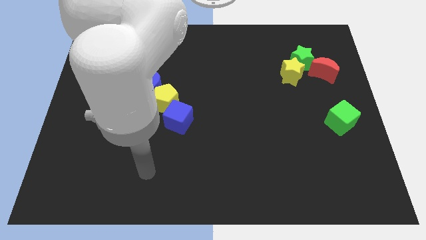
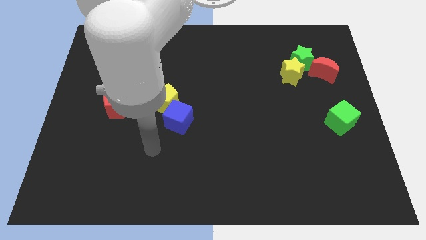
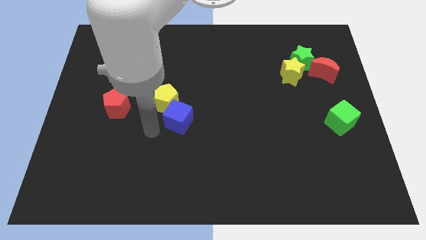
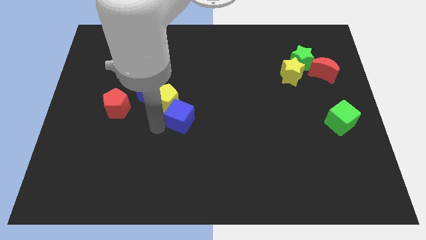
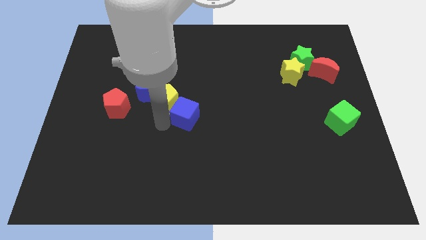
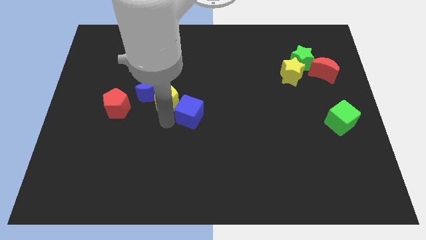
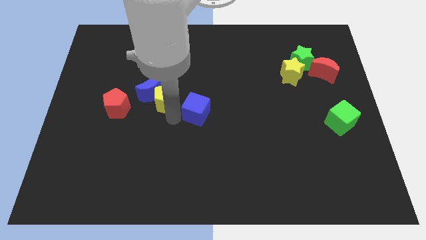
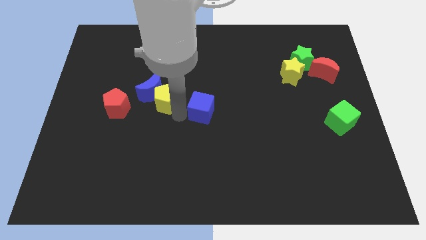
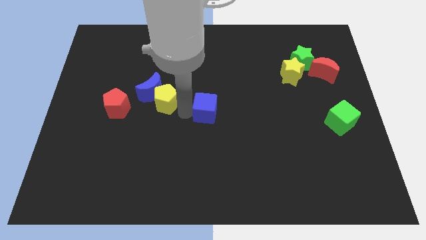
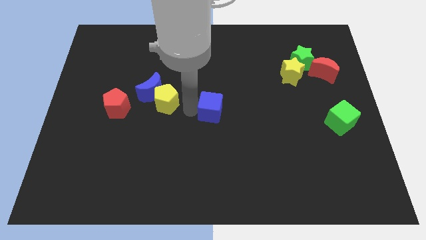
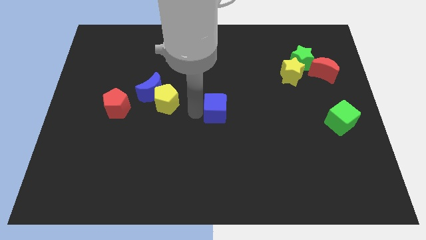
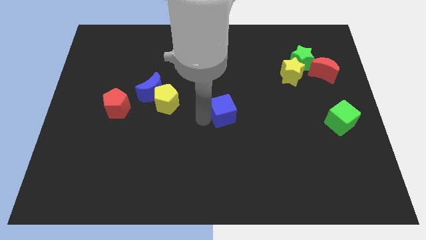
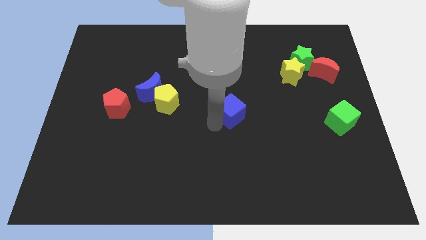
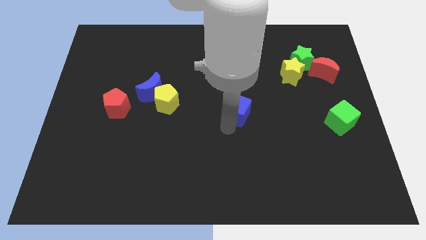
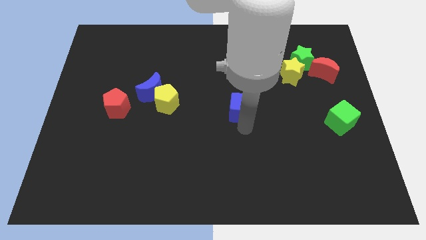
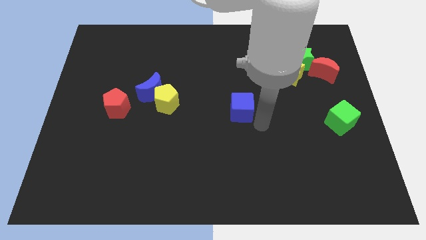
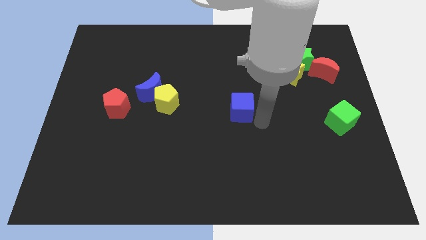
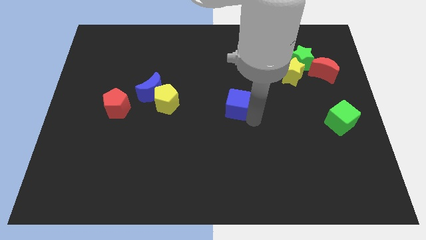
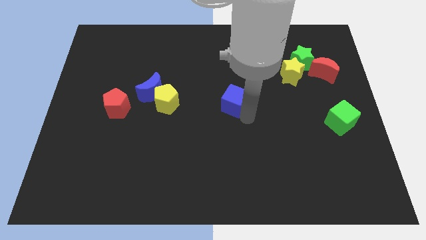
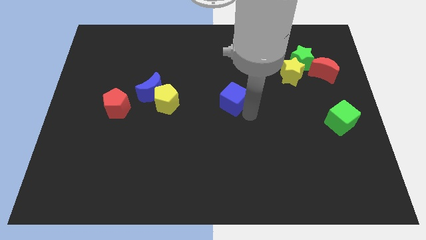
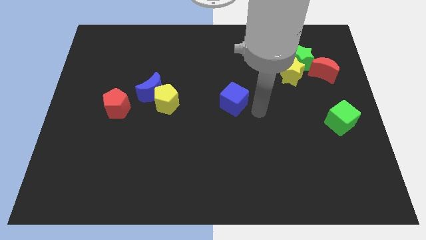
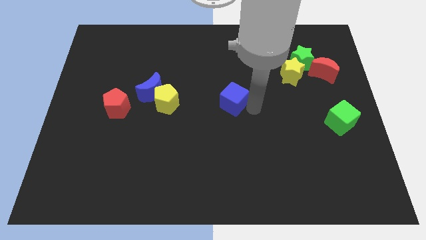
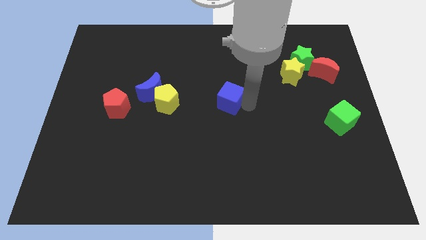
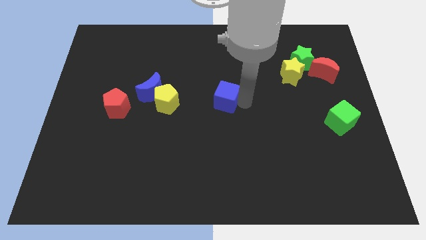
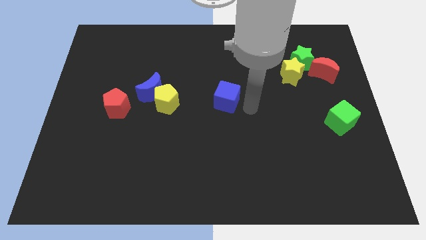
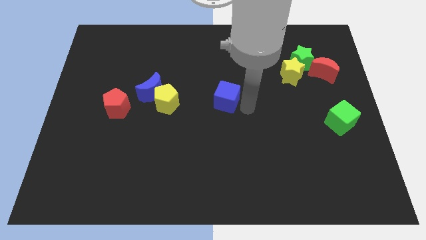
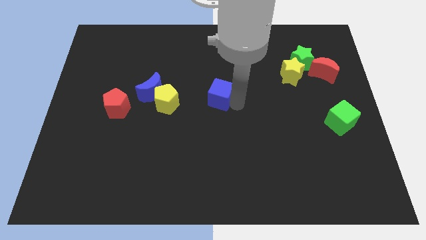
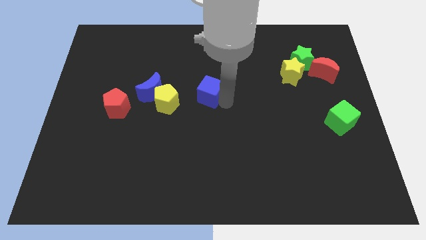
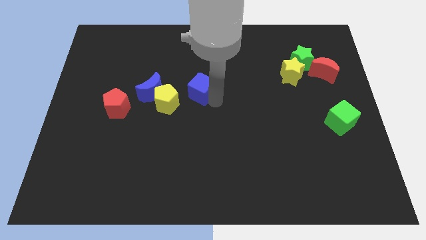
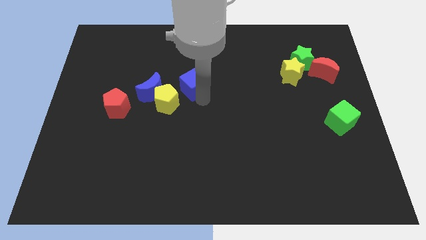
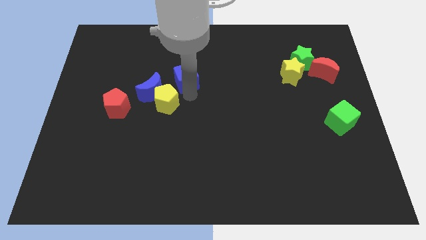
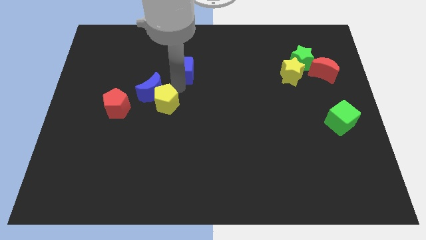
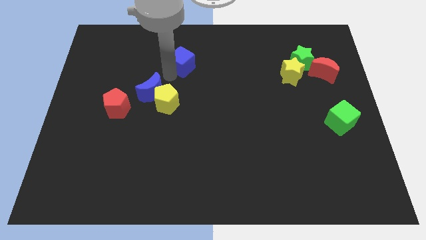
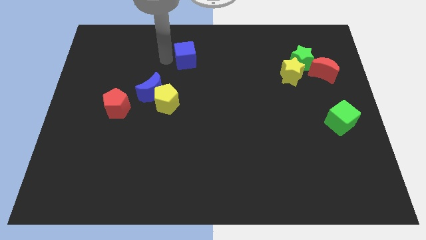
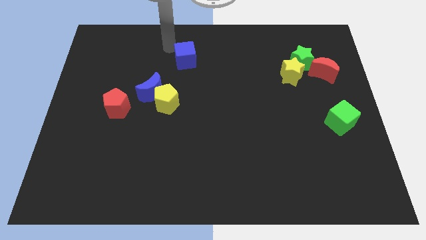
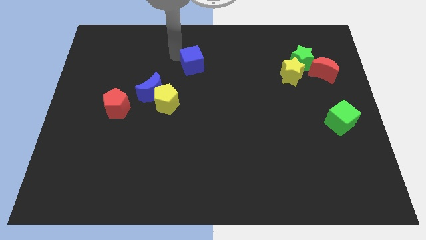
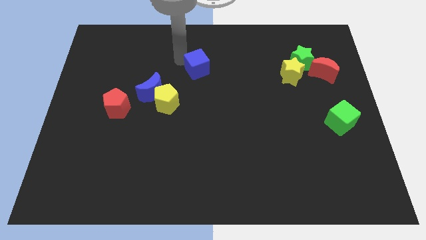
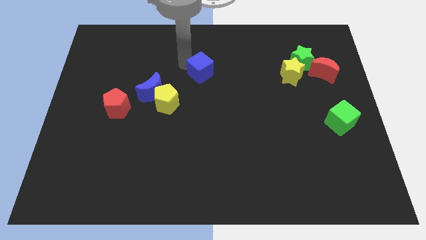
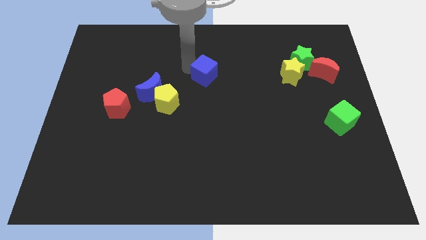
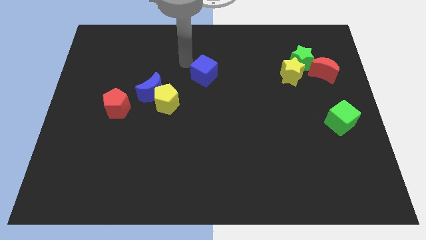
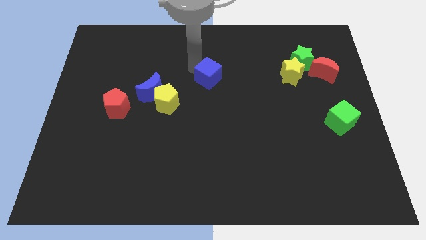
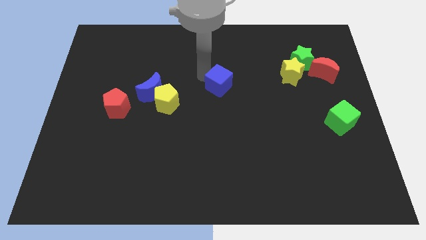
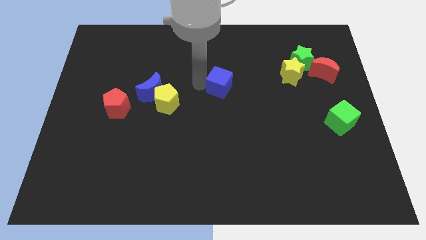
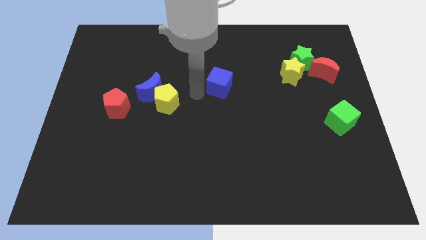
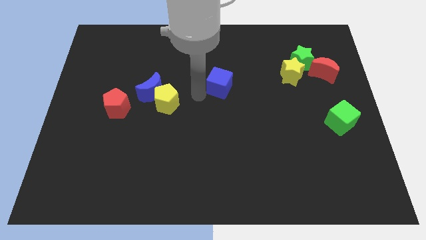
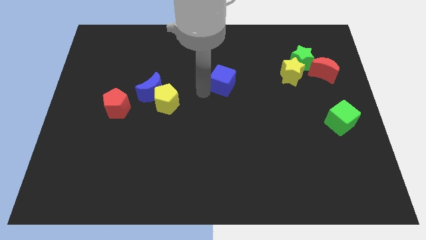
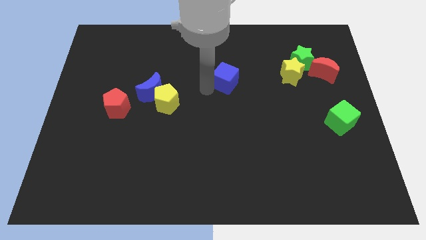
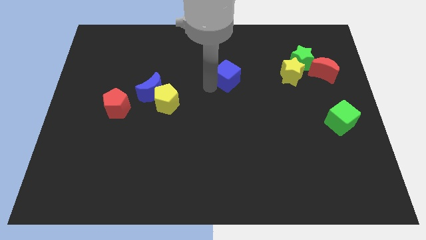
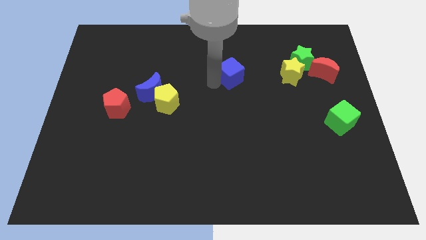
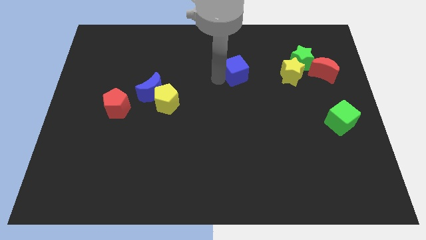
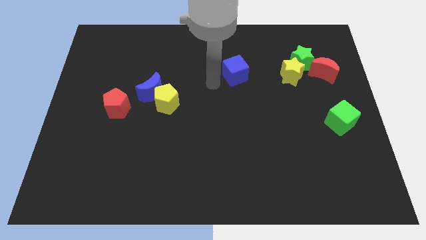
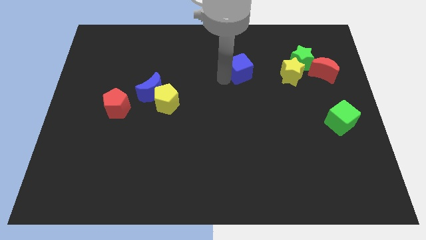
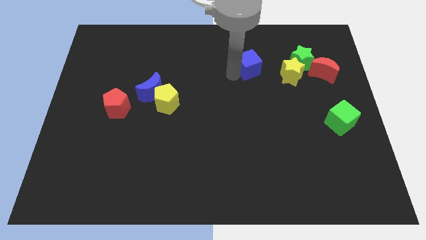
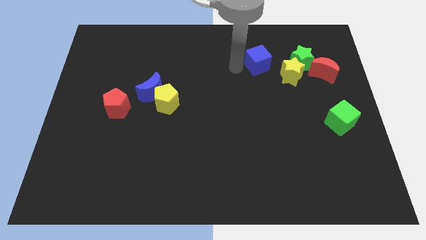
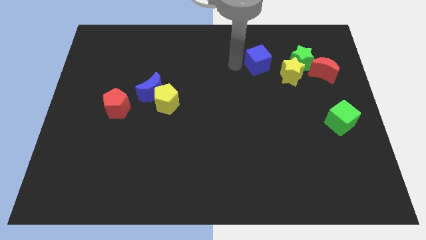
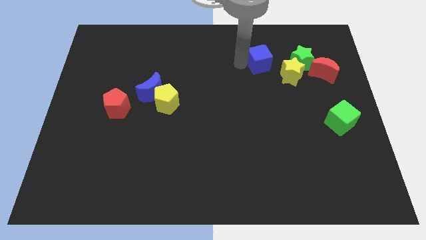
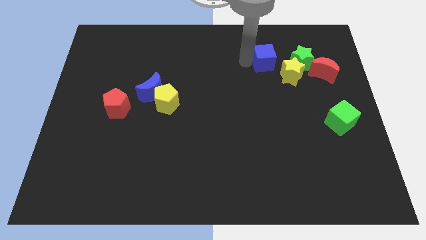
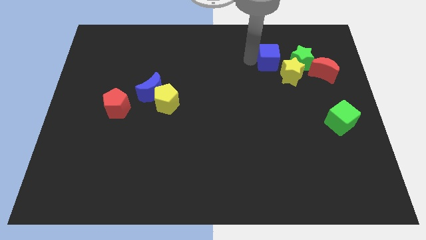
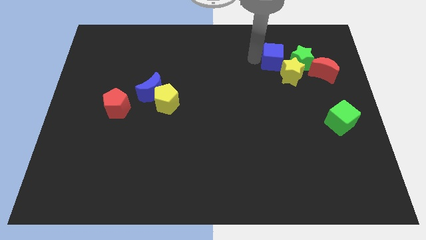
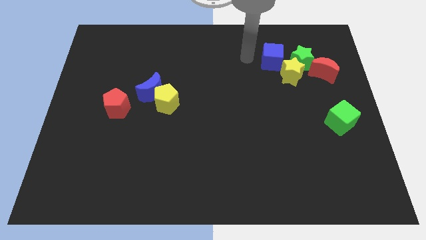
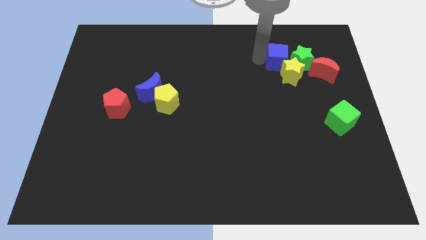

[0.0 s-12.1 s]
slide the blue cube to the green star

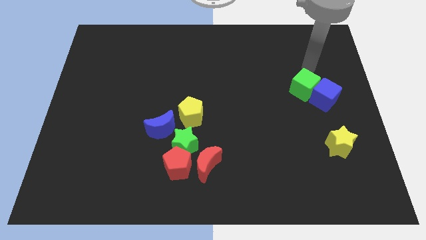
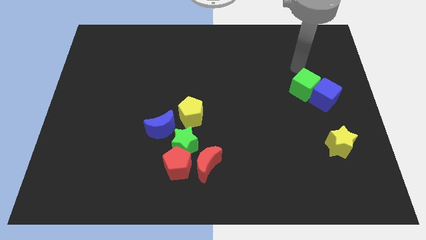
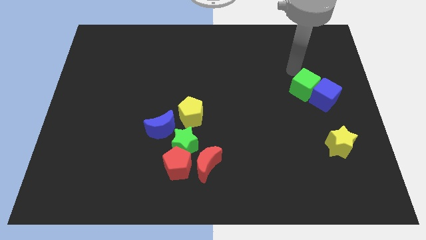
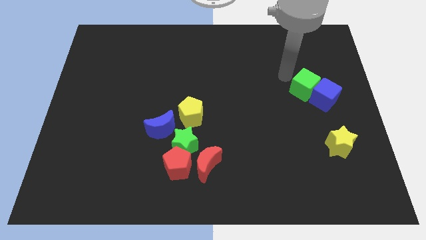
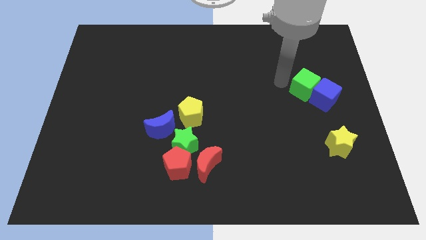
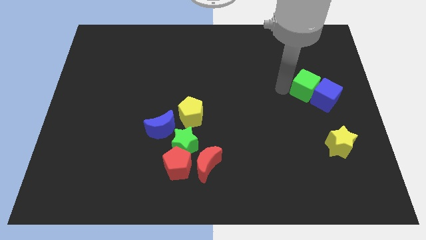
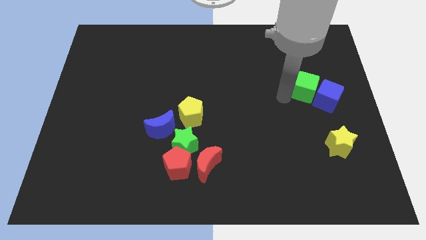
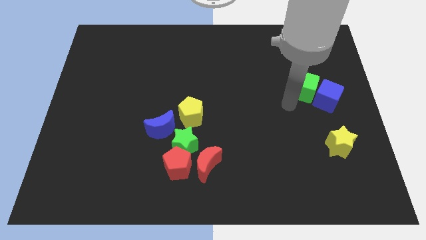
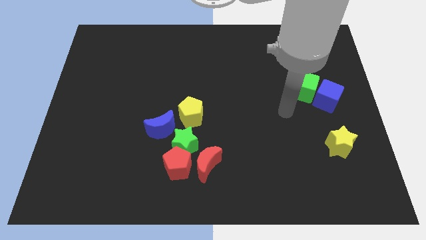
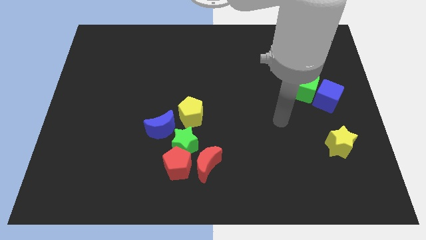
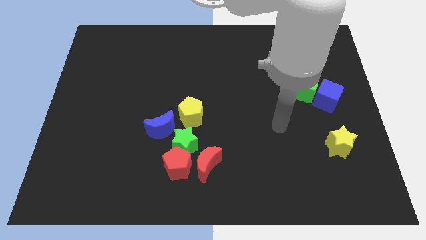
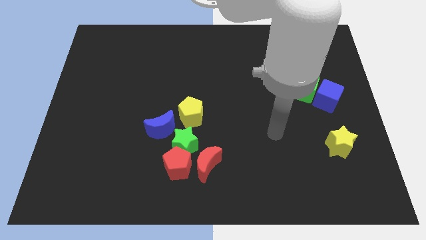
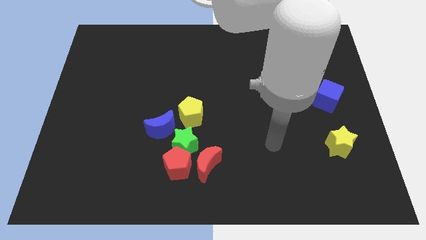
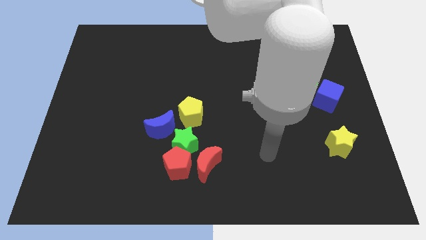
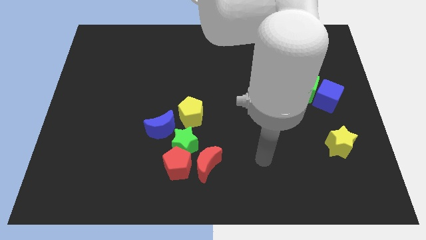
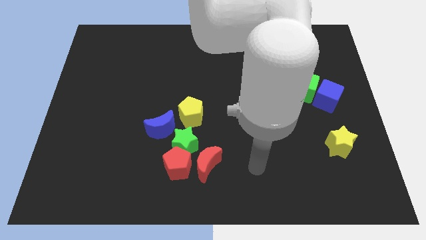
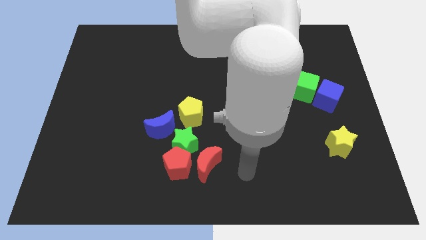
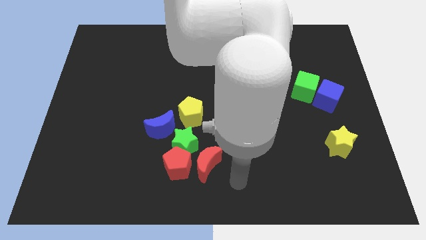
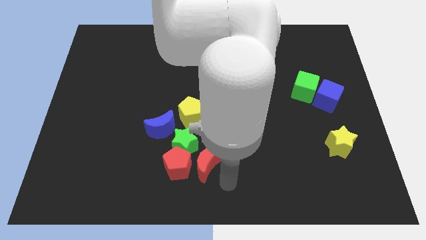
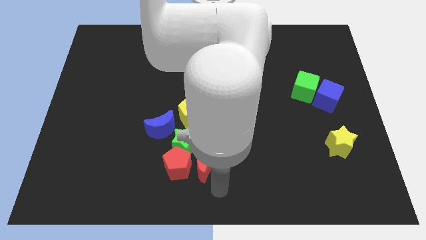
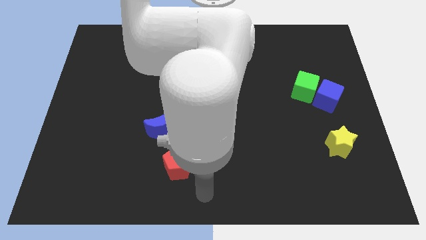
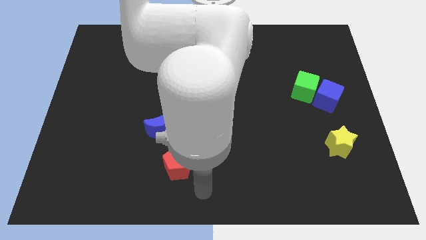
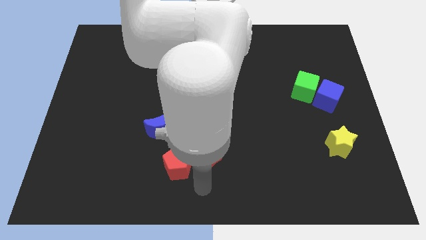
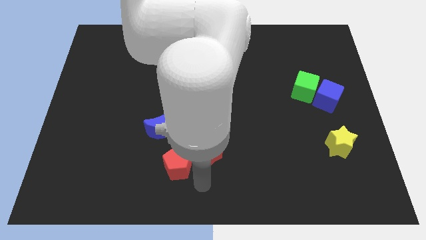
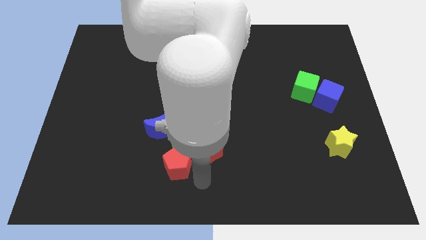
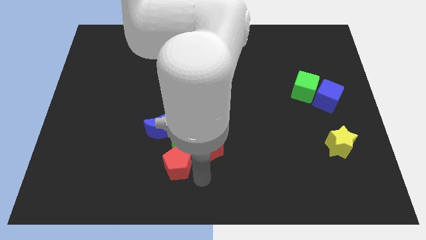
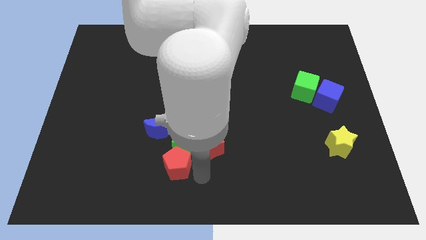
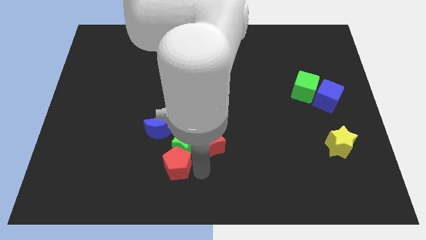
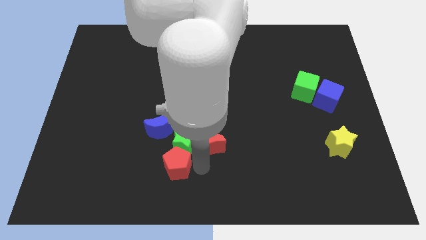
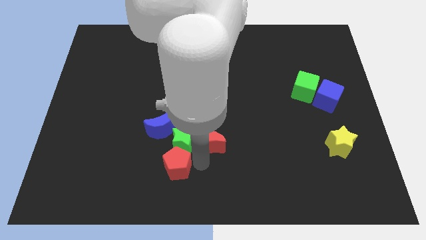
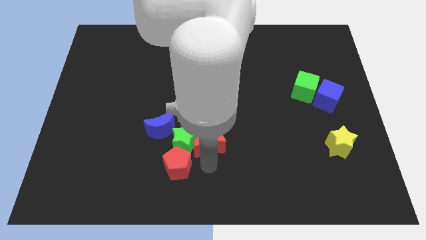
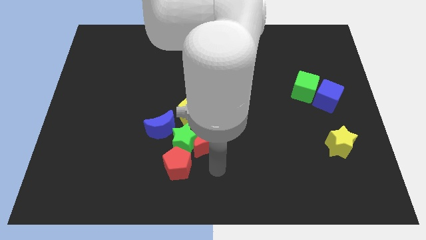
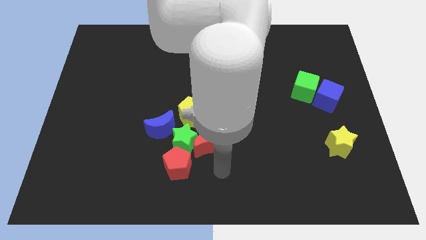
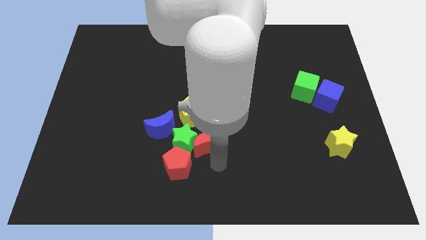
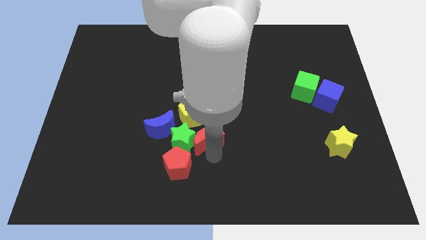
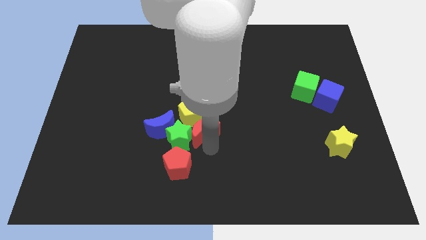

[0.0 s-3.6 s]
move the red moon towards the yellow pentagon
